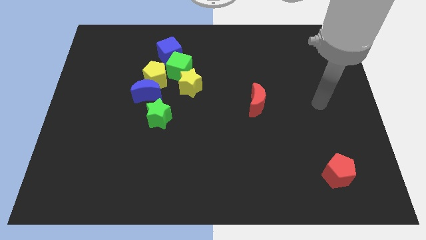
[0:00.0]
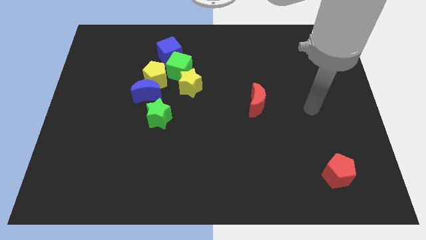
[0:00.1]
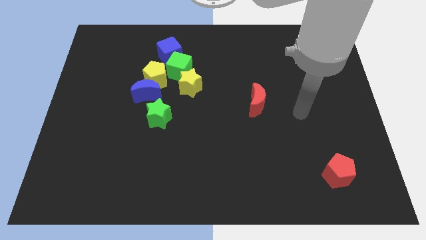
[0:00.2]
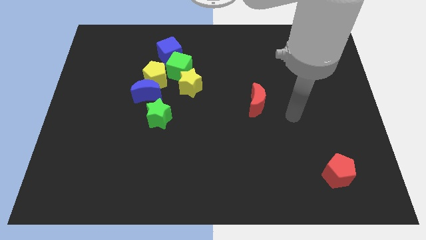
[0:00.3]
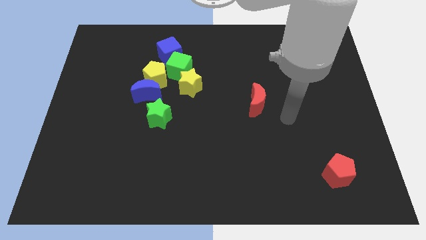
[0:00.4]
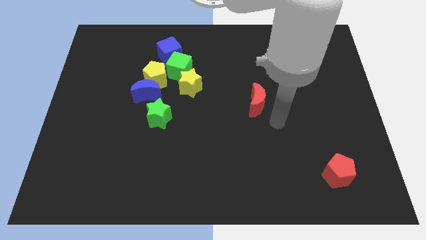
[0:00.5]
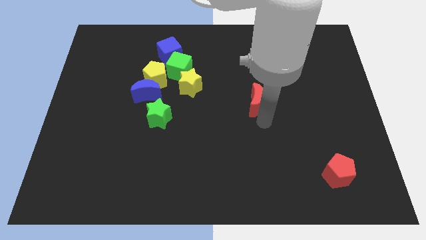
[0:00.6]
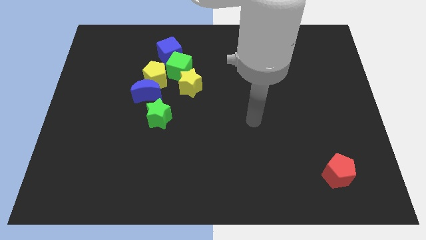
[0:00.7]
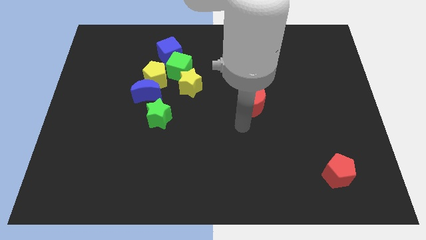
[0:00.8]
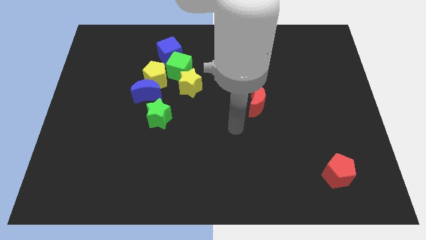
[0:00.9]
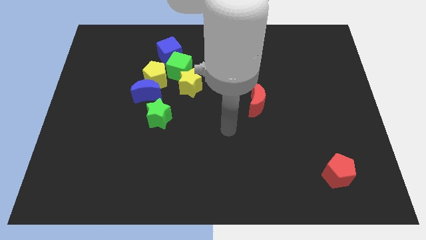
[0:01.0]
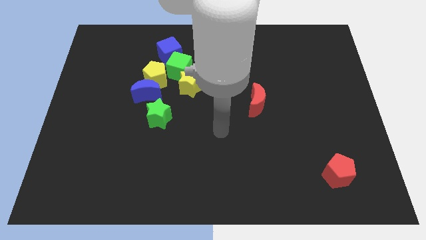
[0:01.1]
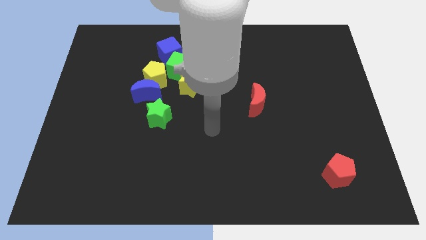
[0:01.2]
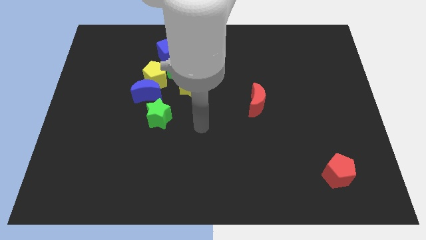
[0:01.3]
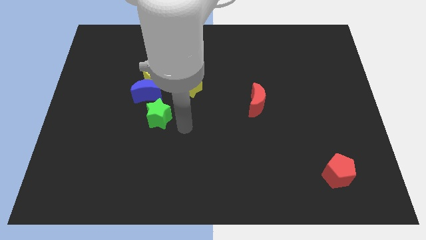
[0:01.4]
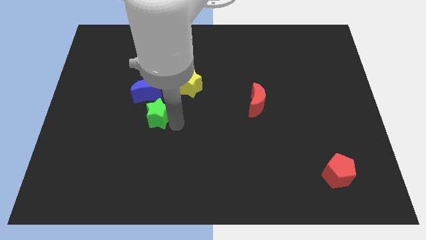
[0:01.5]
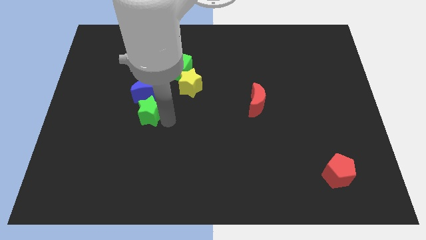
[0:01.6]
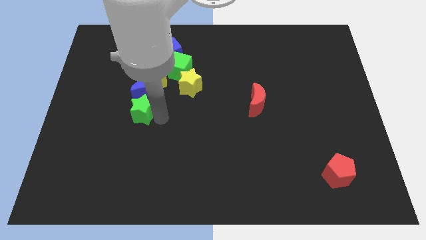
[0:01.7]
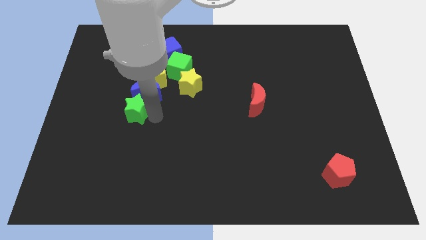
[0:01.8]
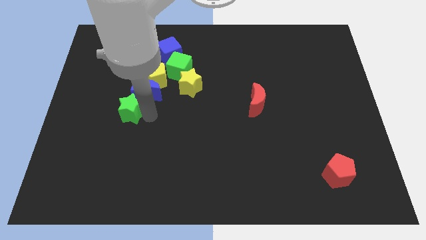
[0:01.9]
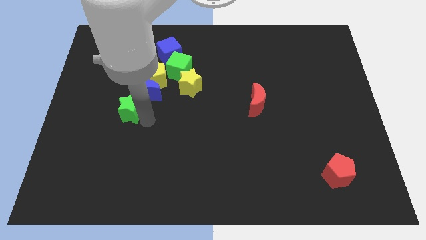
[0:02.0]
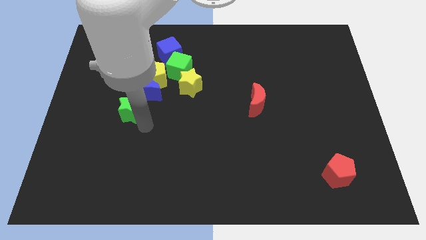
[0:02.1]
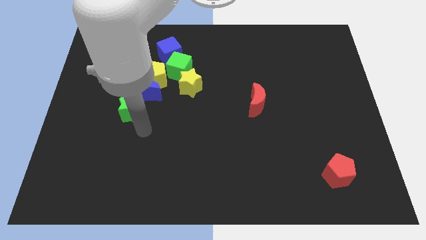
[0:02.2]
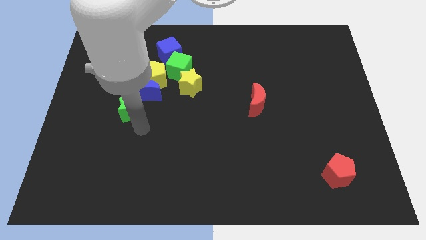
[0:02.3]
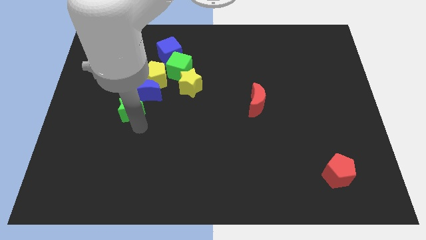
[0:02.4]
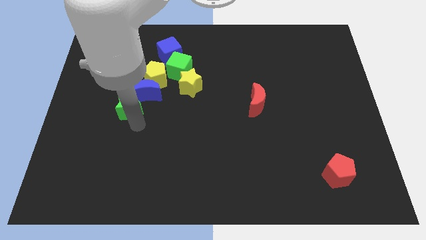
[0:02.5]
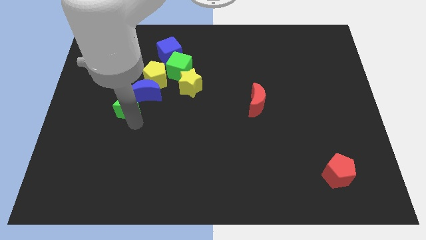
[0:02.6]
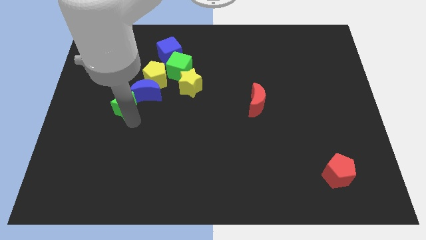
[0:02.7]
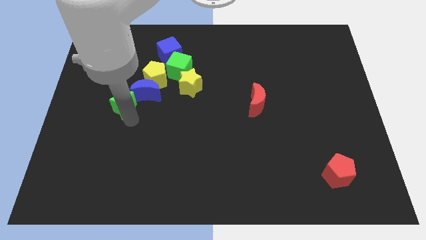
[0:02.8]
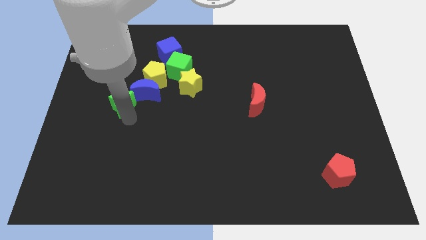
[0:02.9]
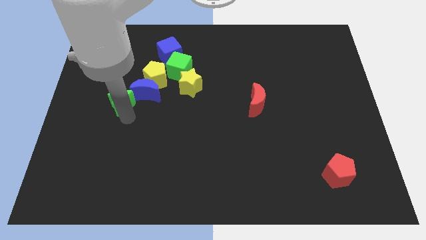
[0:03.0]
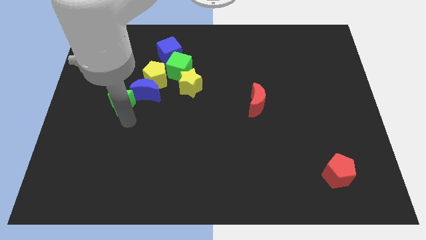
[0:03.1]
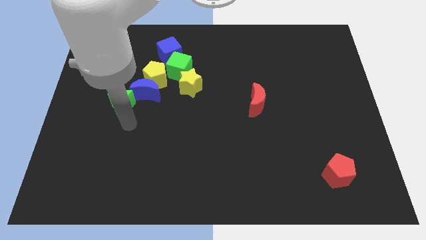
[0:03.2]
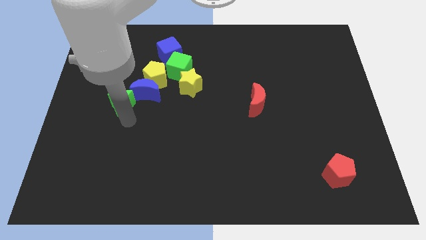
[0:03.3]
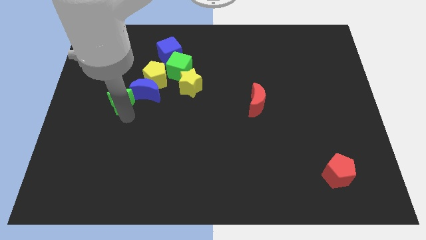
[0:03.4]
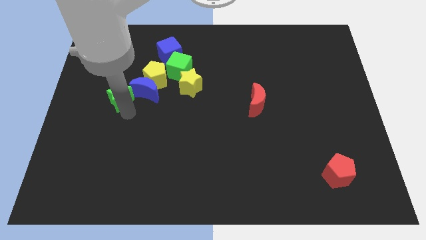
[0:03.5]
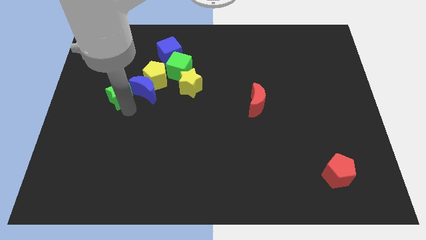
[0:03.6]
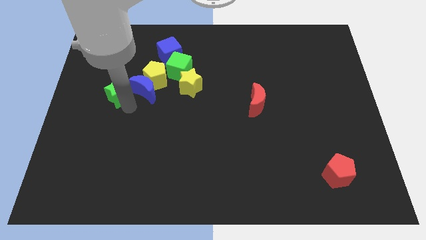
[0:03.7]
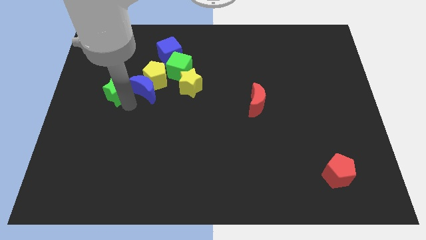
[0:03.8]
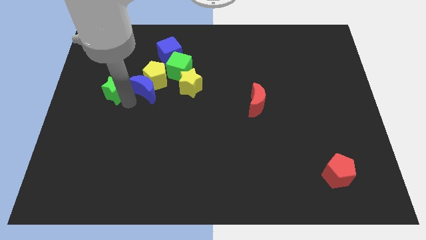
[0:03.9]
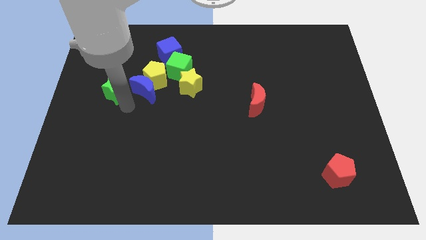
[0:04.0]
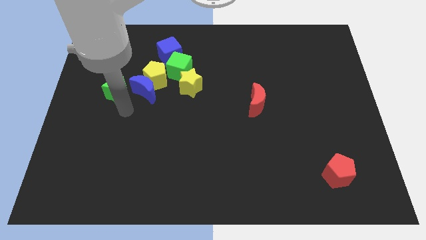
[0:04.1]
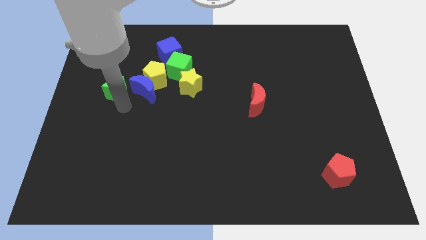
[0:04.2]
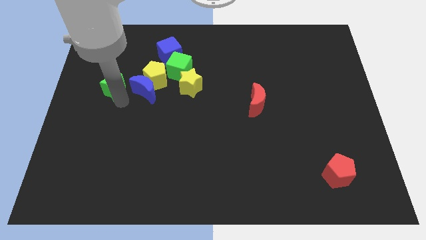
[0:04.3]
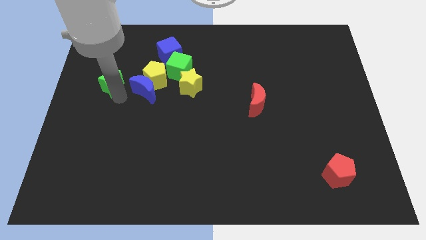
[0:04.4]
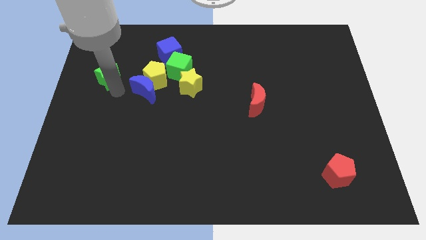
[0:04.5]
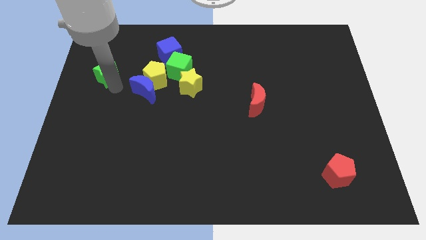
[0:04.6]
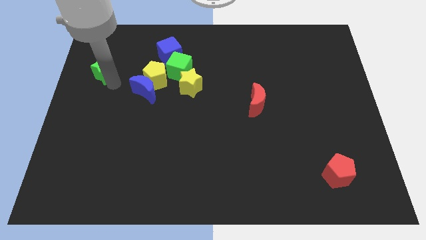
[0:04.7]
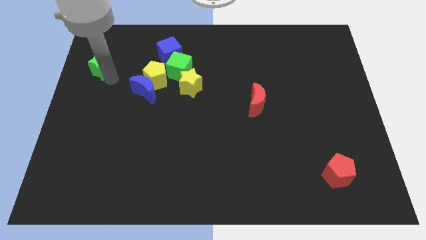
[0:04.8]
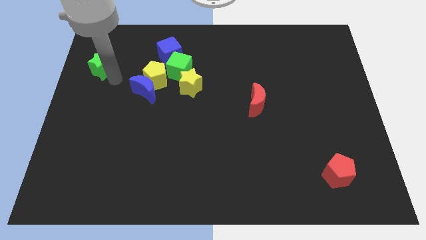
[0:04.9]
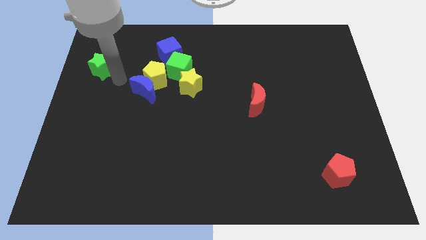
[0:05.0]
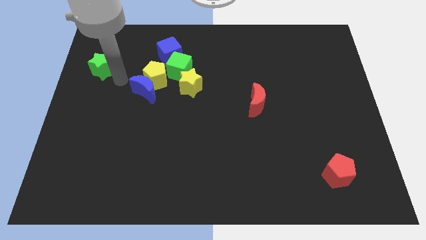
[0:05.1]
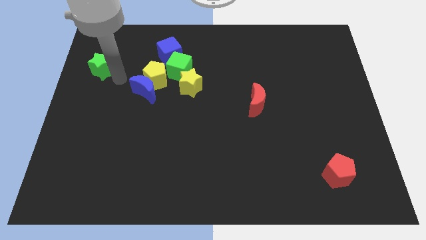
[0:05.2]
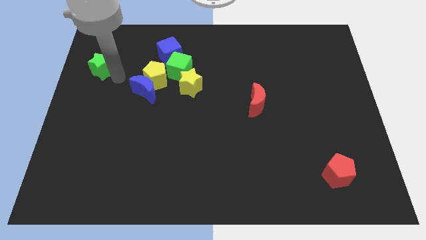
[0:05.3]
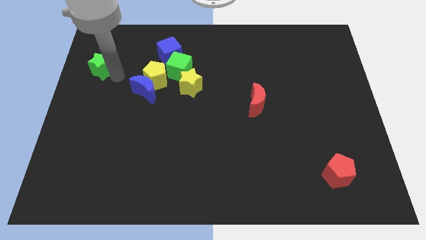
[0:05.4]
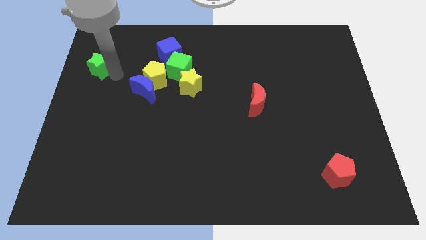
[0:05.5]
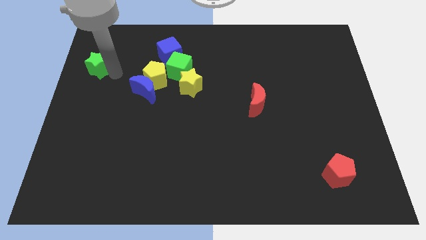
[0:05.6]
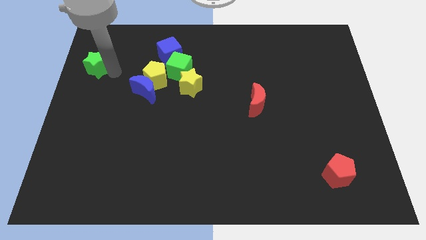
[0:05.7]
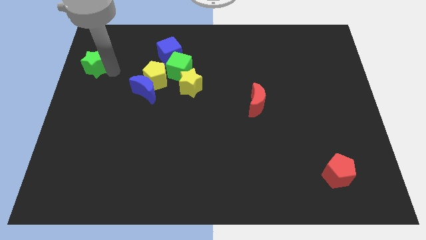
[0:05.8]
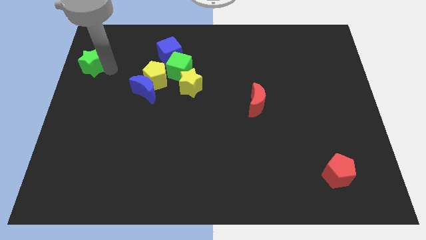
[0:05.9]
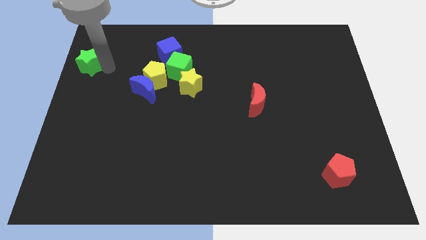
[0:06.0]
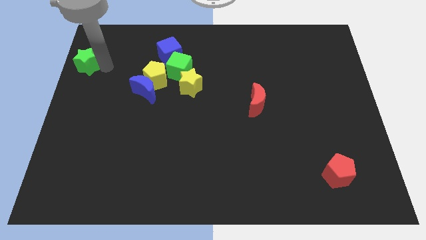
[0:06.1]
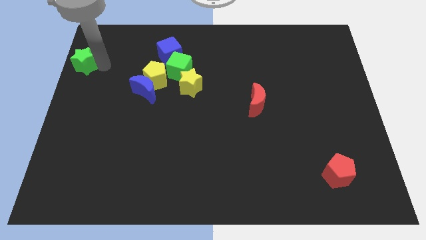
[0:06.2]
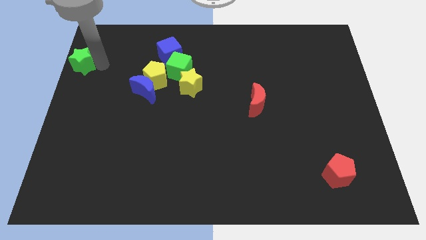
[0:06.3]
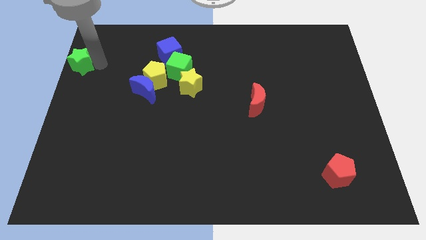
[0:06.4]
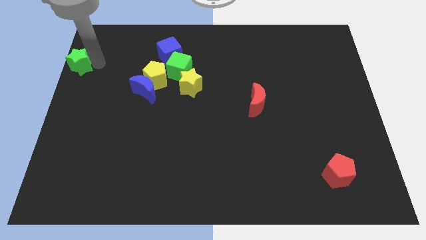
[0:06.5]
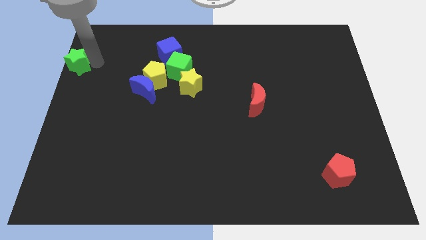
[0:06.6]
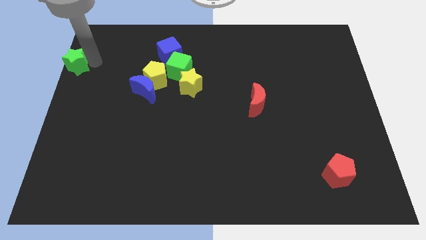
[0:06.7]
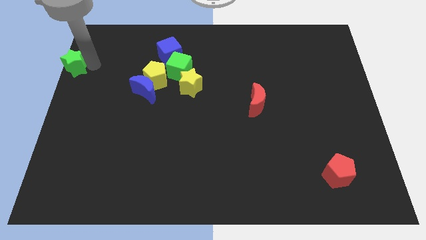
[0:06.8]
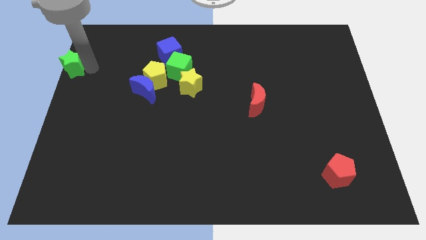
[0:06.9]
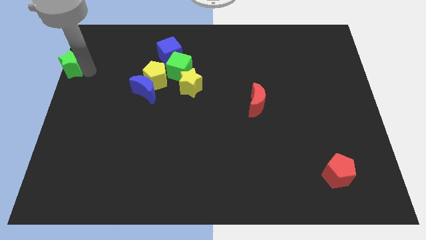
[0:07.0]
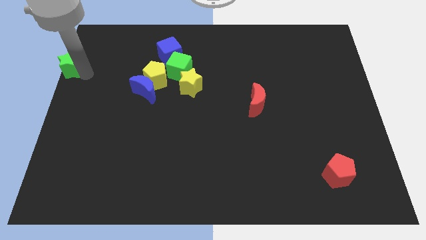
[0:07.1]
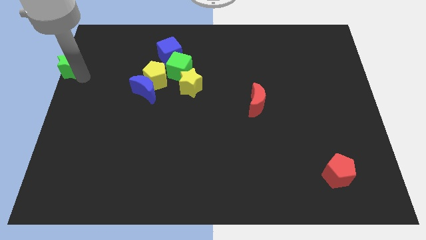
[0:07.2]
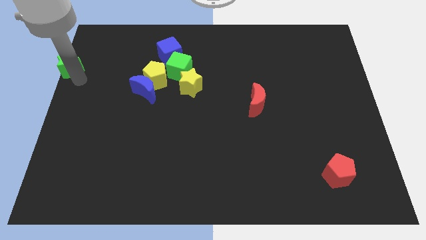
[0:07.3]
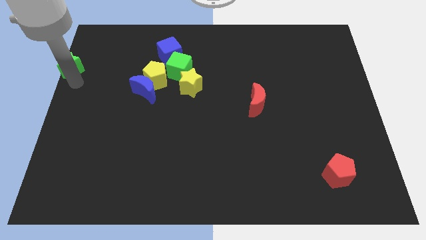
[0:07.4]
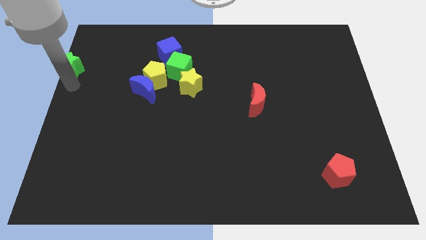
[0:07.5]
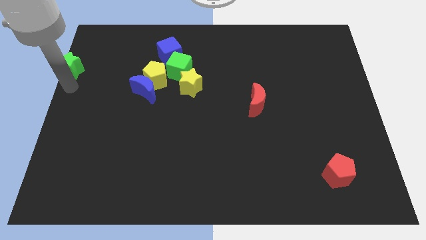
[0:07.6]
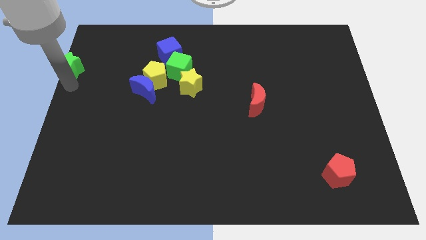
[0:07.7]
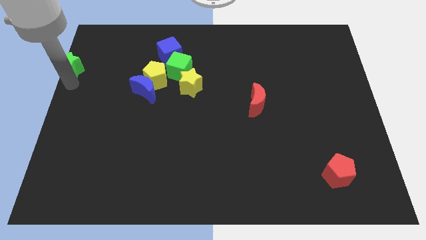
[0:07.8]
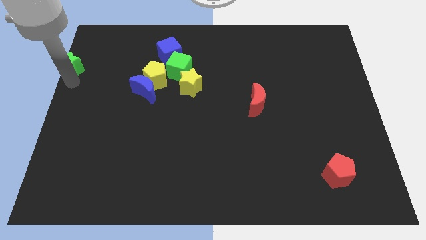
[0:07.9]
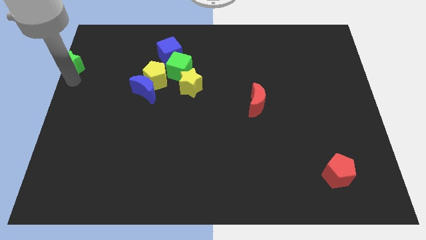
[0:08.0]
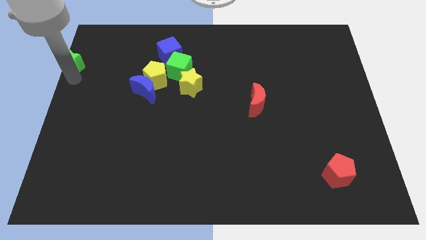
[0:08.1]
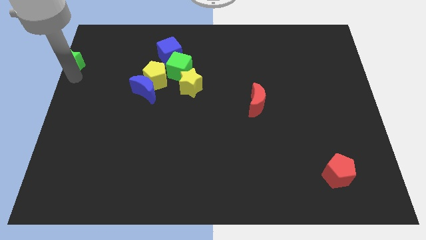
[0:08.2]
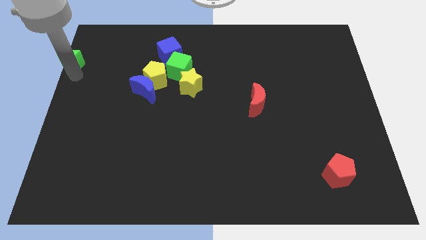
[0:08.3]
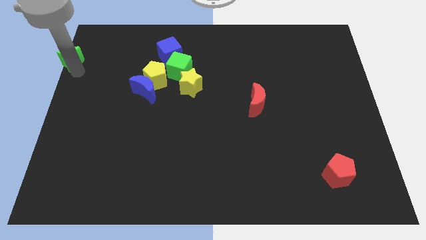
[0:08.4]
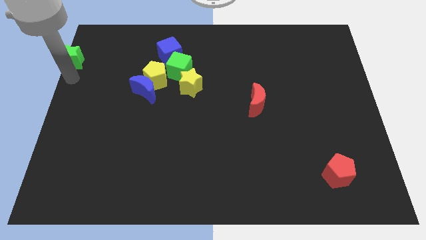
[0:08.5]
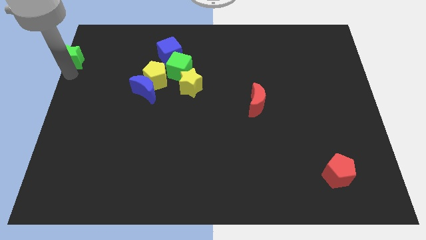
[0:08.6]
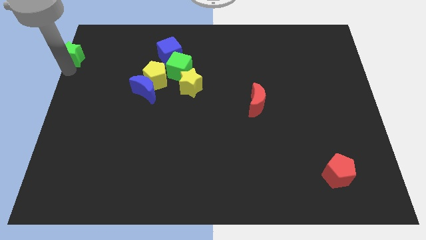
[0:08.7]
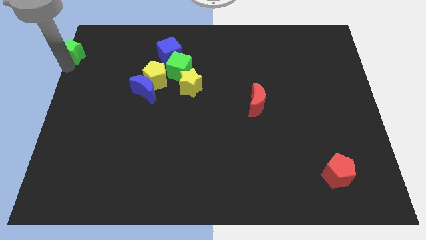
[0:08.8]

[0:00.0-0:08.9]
move the green star to the top left corner
